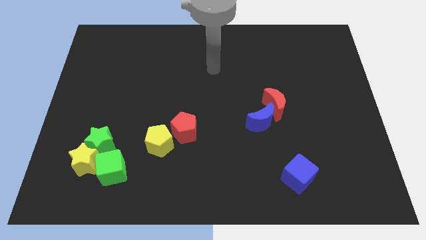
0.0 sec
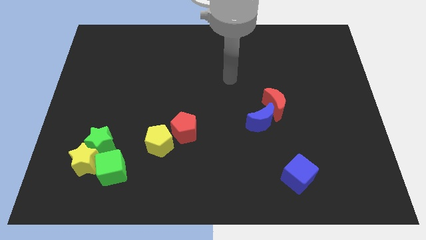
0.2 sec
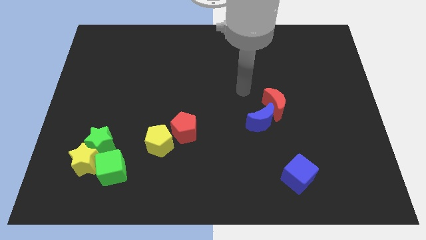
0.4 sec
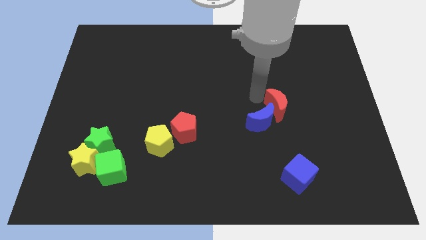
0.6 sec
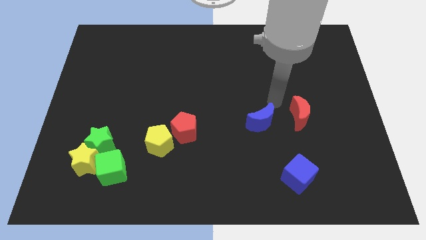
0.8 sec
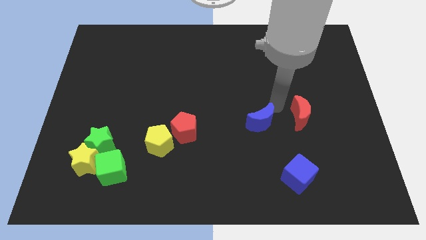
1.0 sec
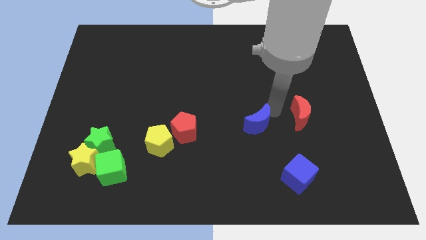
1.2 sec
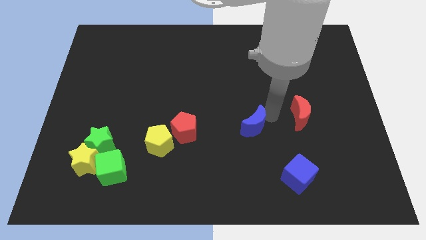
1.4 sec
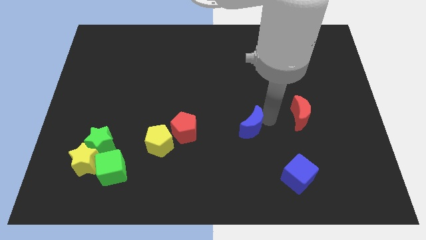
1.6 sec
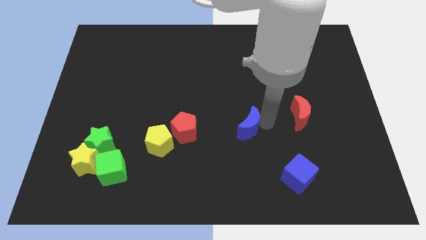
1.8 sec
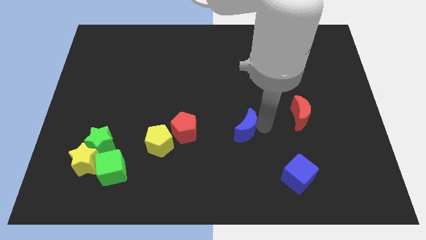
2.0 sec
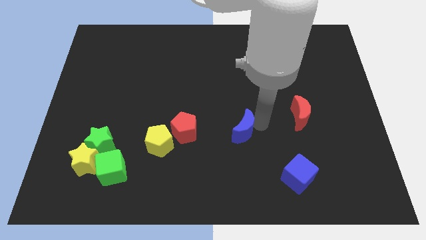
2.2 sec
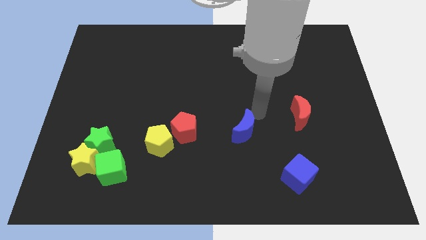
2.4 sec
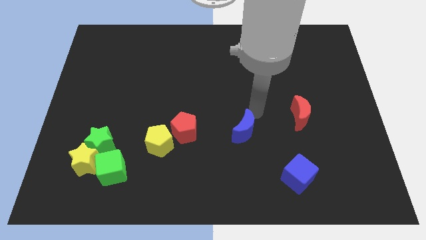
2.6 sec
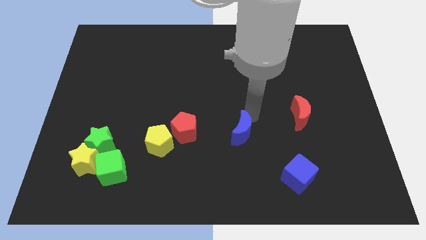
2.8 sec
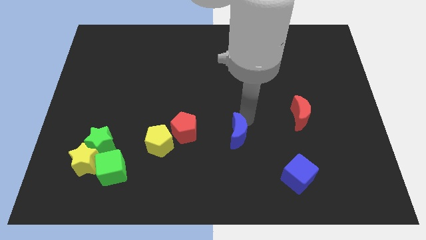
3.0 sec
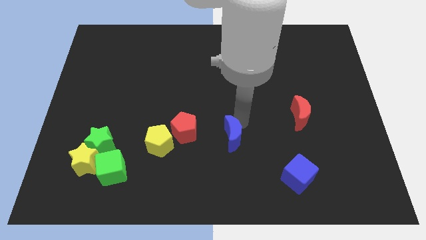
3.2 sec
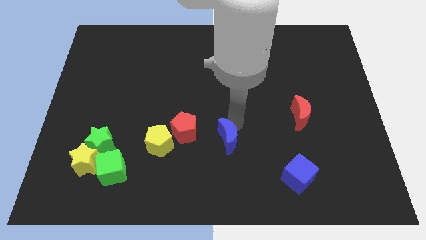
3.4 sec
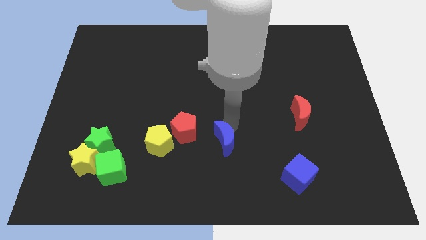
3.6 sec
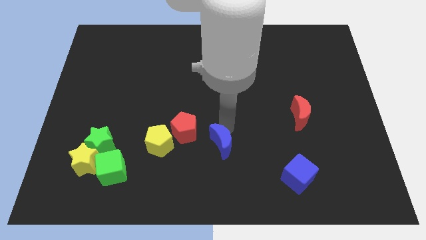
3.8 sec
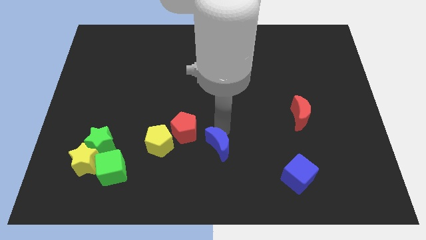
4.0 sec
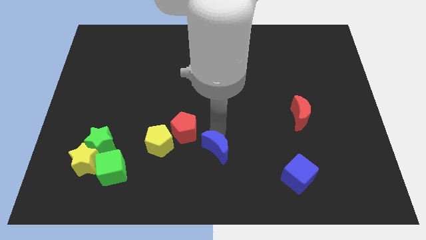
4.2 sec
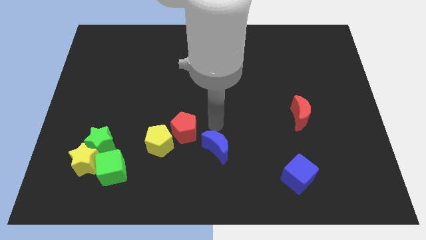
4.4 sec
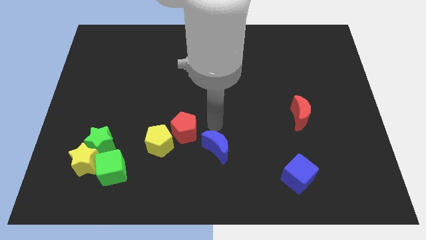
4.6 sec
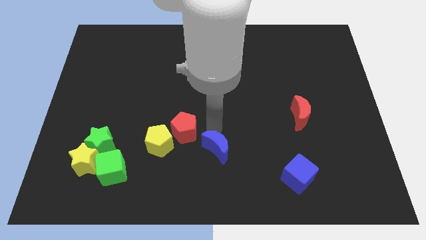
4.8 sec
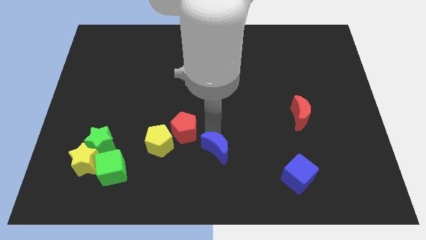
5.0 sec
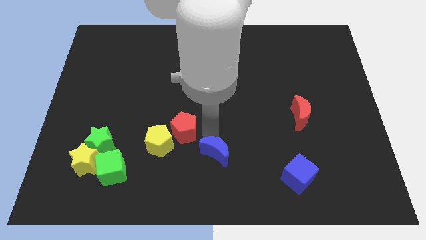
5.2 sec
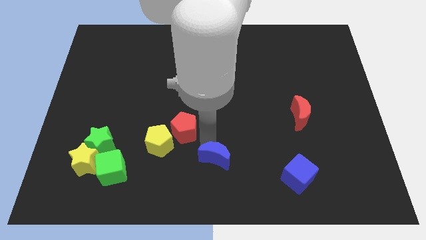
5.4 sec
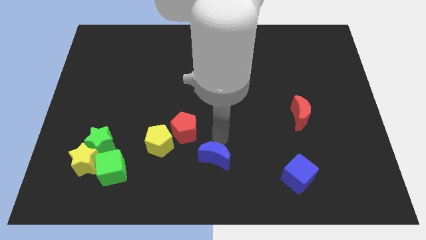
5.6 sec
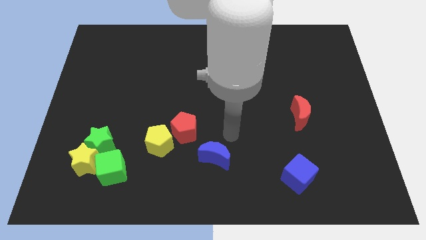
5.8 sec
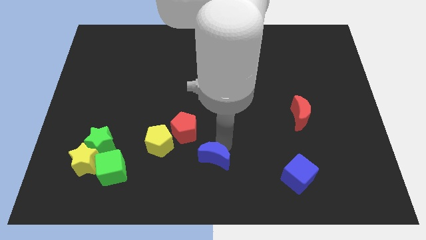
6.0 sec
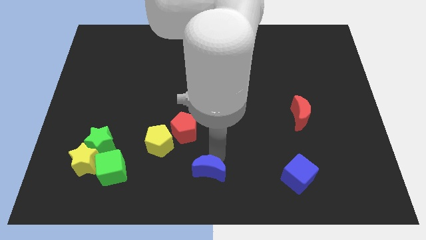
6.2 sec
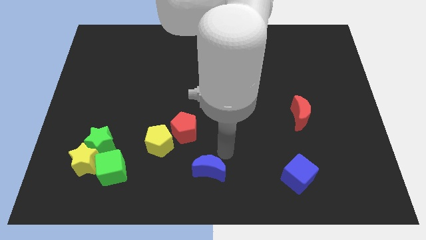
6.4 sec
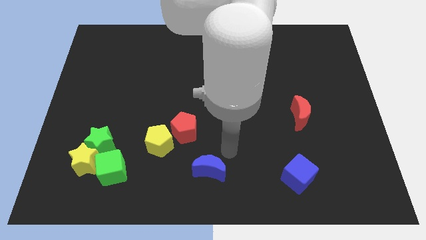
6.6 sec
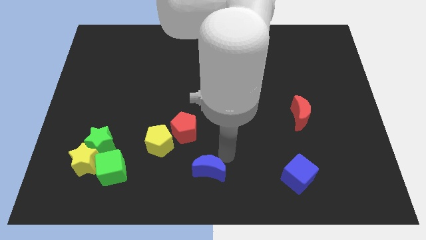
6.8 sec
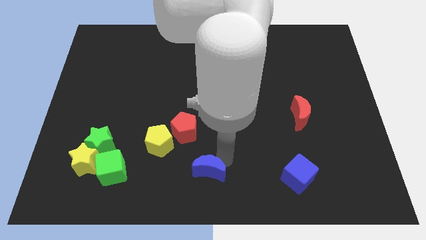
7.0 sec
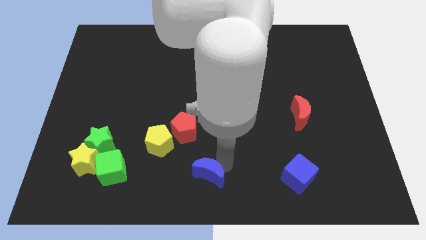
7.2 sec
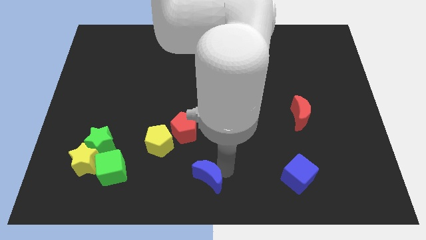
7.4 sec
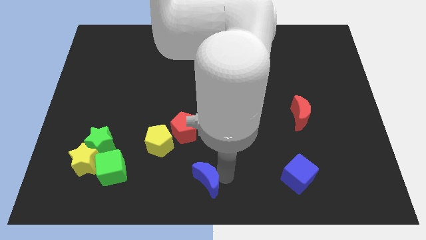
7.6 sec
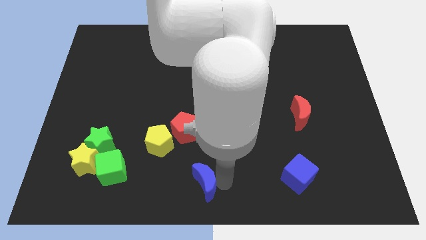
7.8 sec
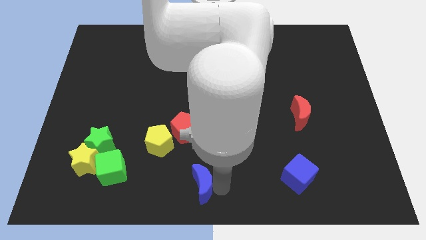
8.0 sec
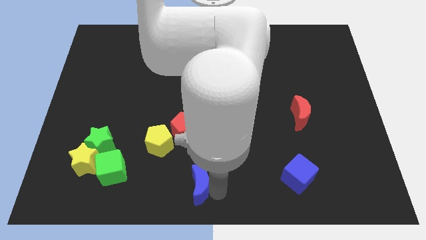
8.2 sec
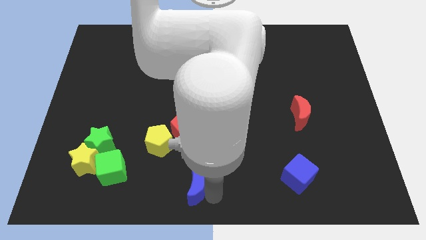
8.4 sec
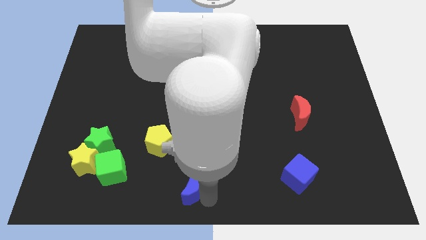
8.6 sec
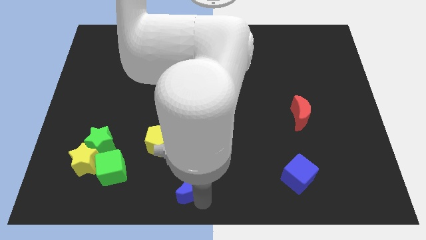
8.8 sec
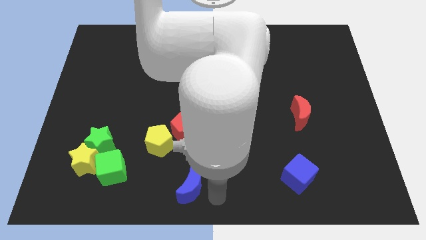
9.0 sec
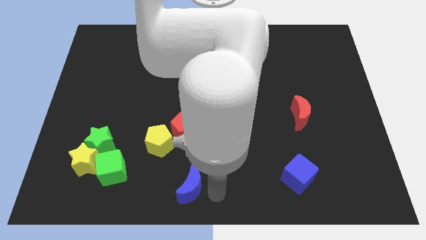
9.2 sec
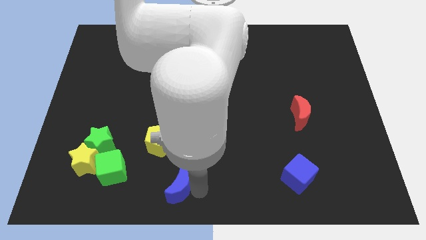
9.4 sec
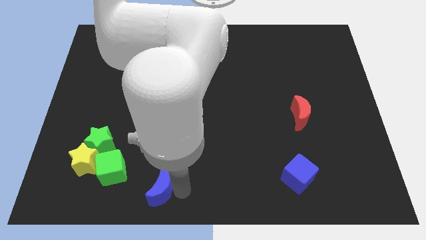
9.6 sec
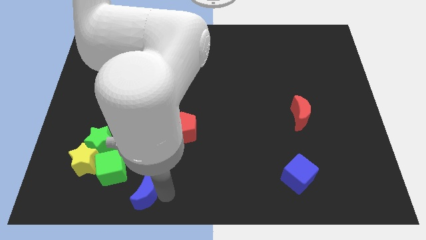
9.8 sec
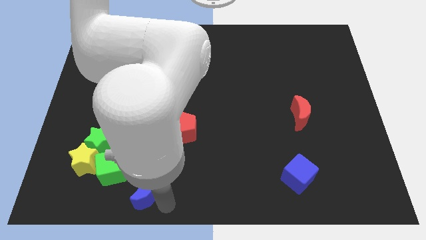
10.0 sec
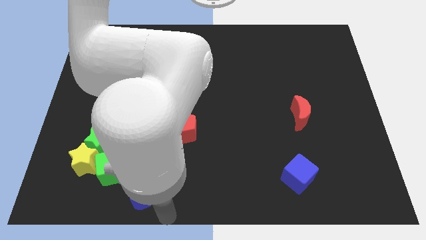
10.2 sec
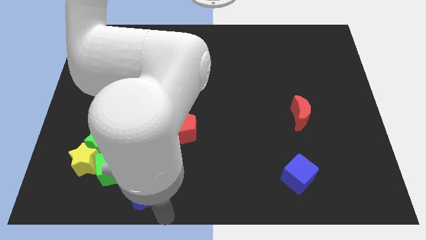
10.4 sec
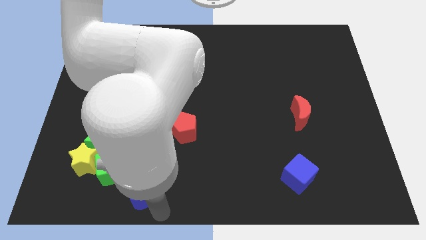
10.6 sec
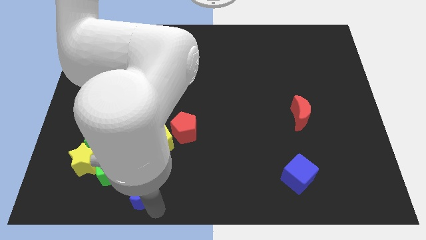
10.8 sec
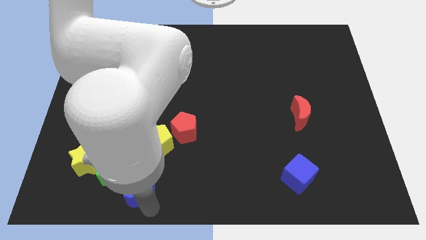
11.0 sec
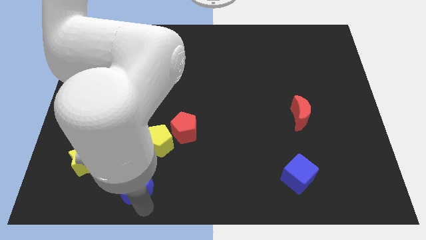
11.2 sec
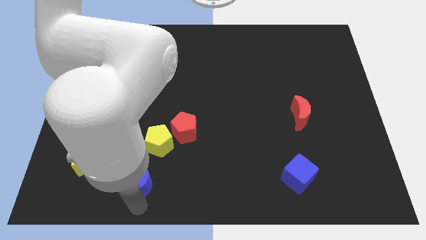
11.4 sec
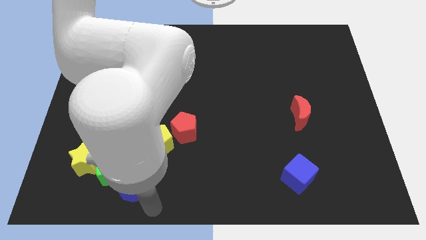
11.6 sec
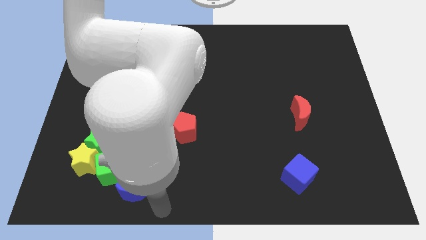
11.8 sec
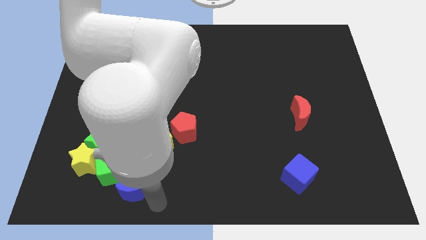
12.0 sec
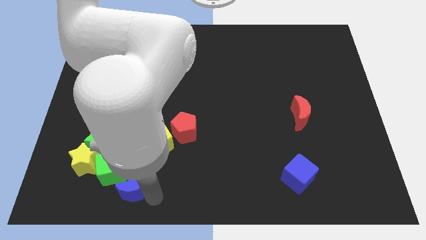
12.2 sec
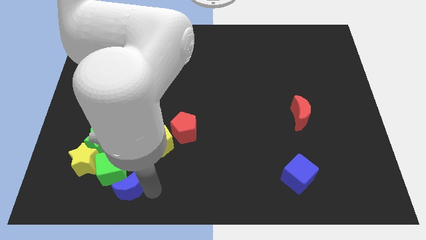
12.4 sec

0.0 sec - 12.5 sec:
move the blue moon close to the green cube

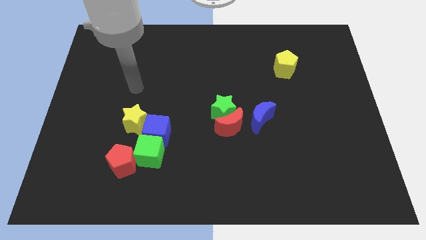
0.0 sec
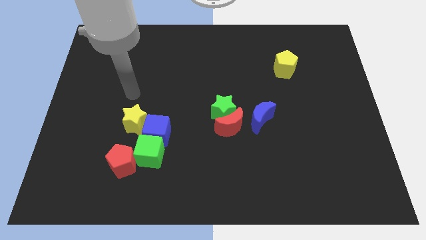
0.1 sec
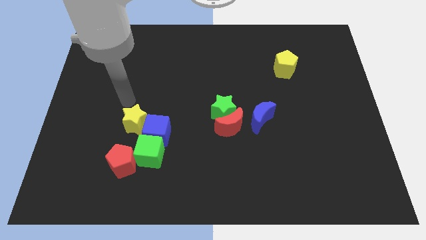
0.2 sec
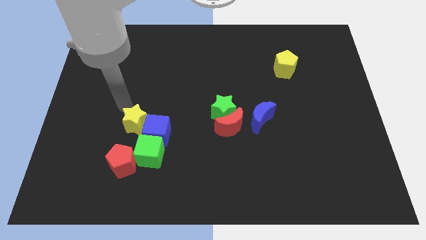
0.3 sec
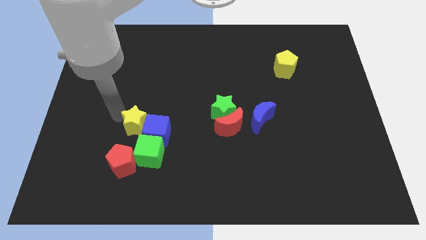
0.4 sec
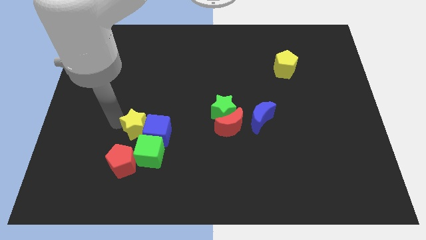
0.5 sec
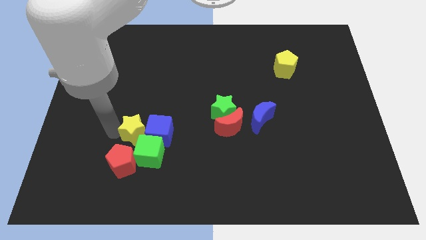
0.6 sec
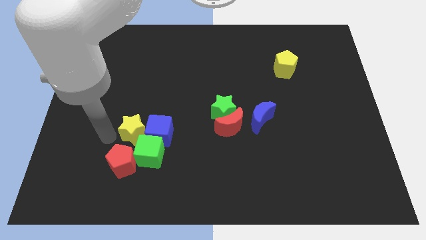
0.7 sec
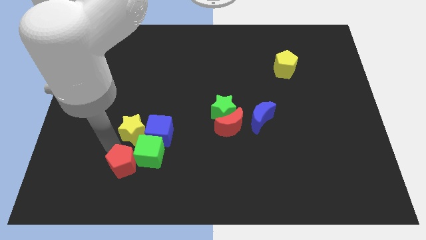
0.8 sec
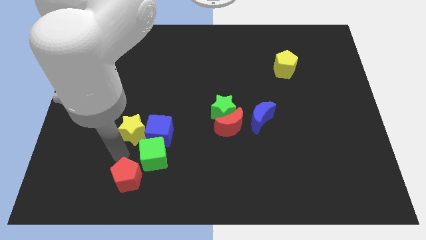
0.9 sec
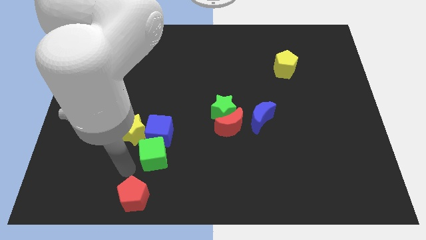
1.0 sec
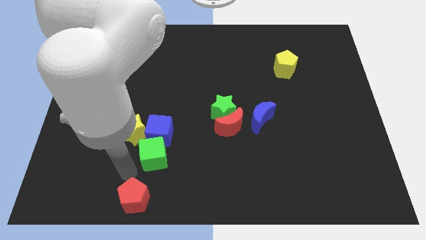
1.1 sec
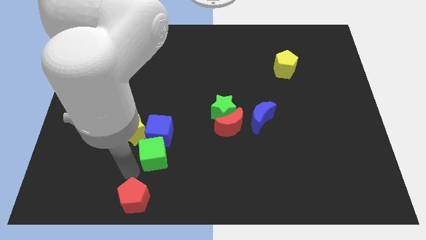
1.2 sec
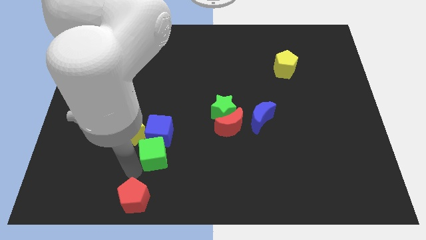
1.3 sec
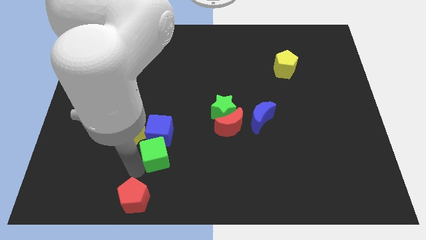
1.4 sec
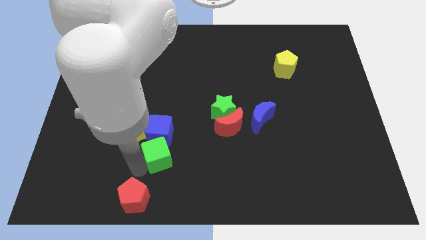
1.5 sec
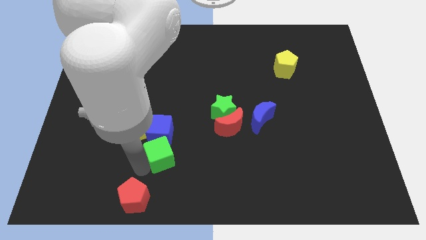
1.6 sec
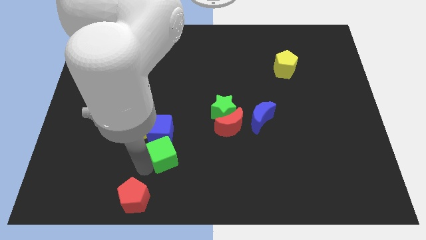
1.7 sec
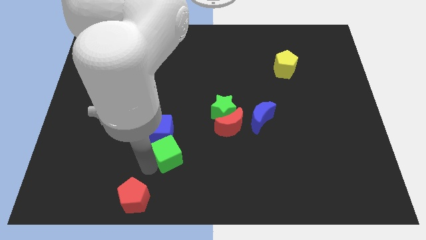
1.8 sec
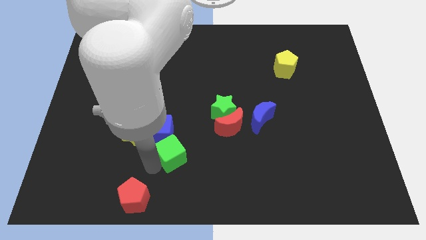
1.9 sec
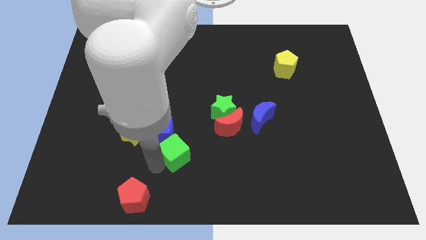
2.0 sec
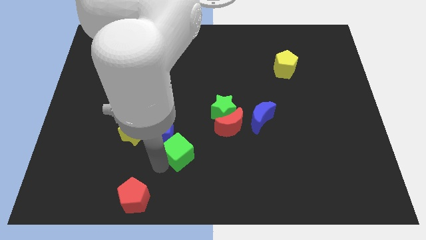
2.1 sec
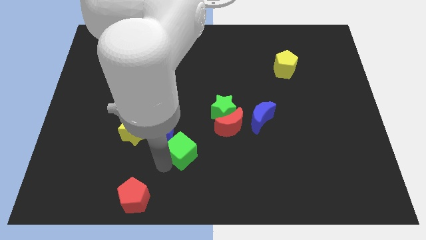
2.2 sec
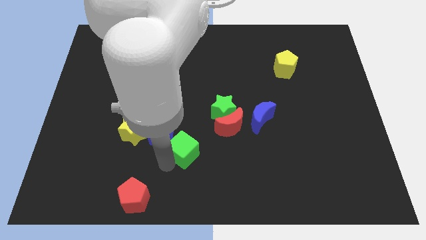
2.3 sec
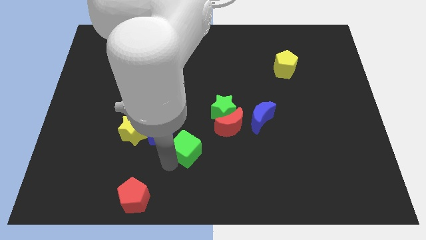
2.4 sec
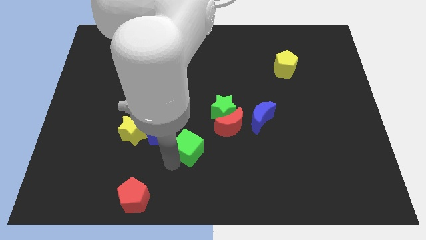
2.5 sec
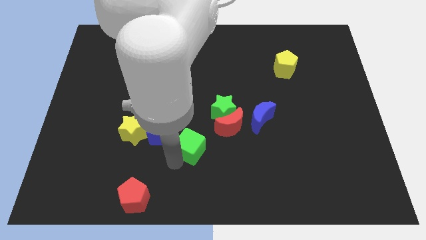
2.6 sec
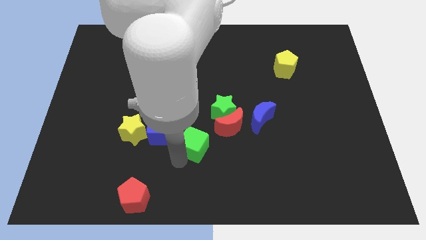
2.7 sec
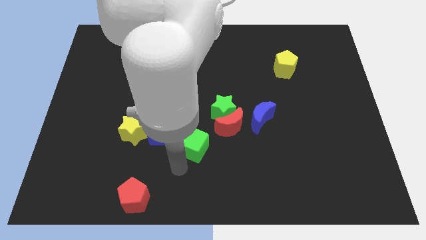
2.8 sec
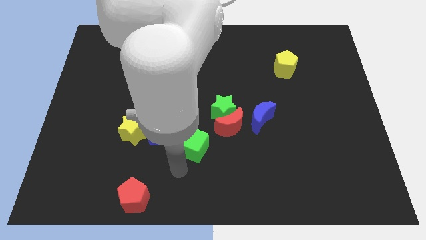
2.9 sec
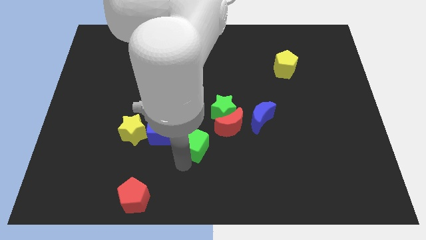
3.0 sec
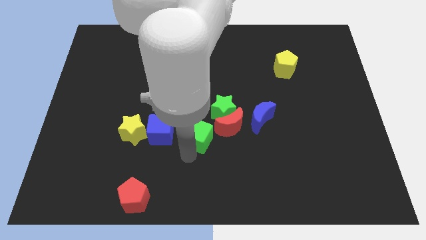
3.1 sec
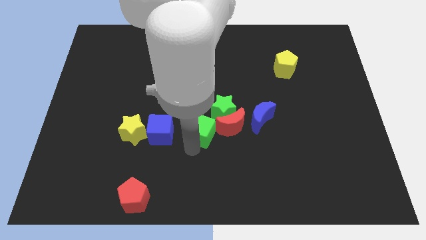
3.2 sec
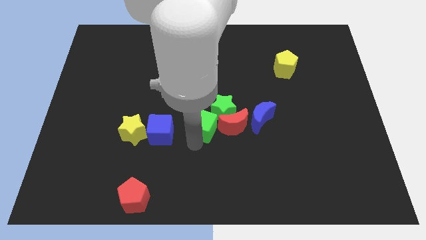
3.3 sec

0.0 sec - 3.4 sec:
push the green cube towards the green star
